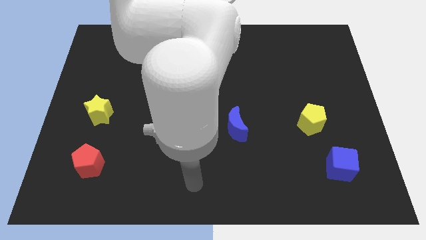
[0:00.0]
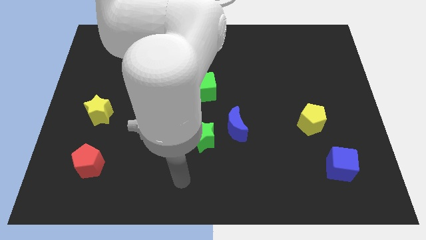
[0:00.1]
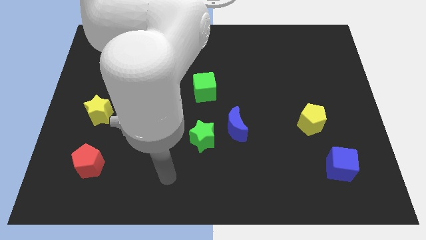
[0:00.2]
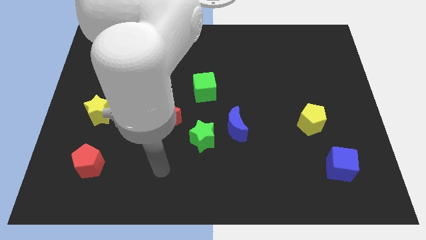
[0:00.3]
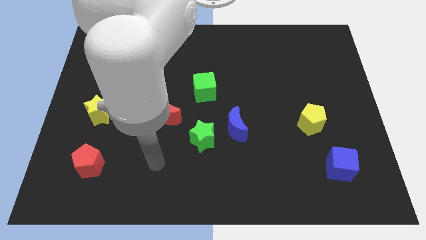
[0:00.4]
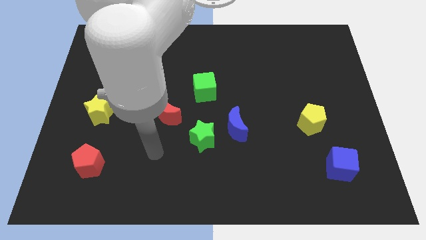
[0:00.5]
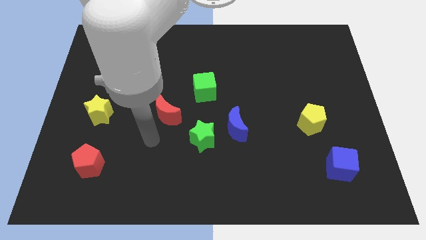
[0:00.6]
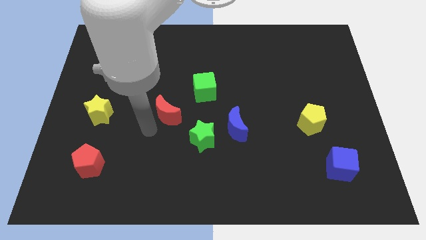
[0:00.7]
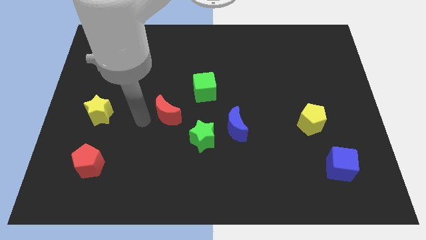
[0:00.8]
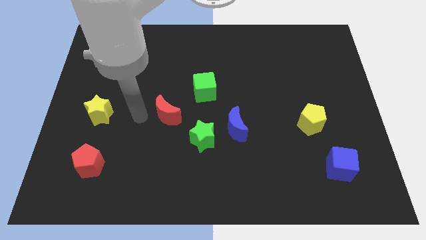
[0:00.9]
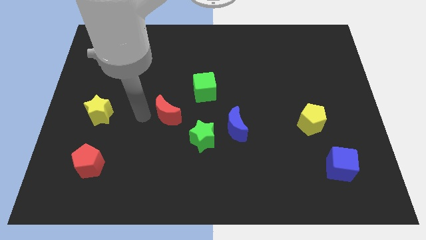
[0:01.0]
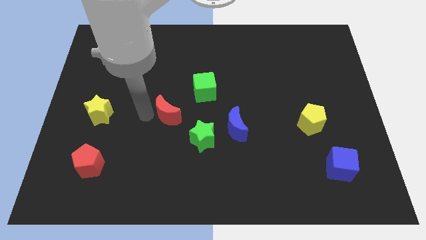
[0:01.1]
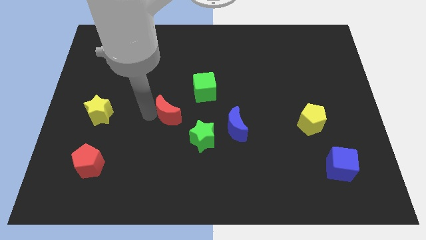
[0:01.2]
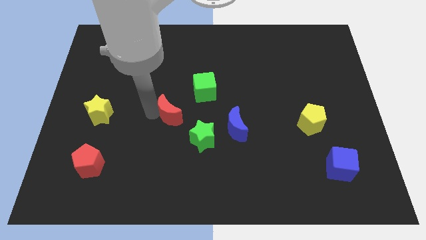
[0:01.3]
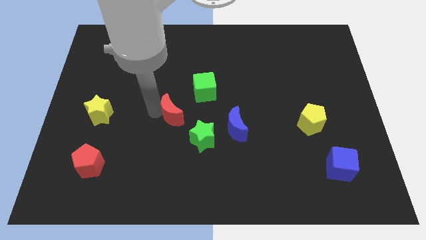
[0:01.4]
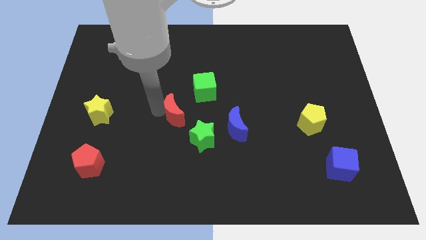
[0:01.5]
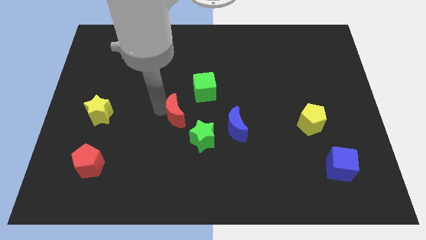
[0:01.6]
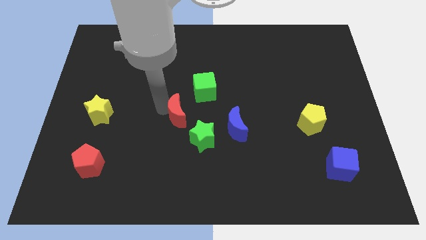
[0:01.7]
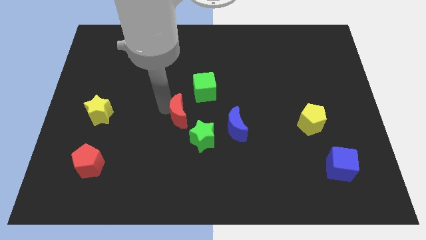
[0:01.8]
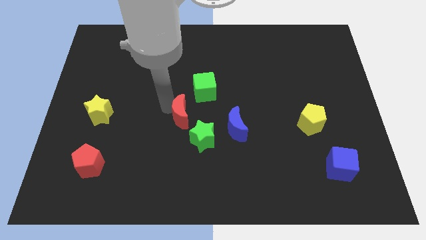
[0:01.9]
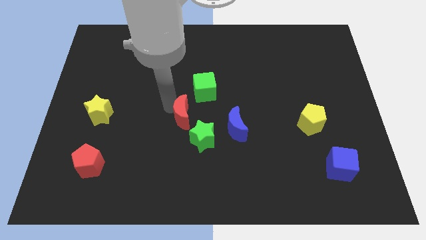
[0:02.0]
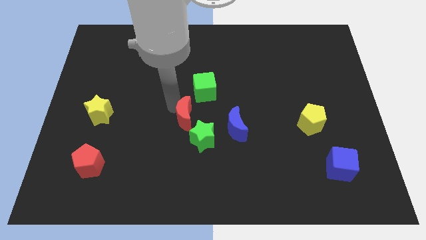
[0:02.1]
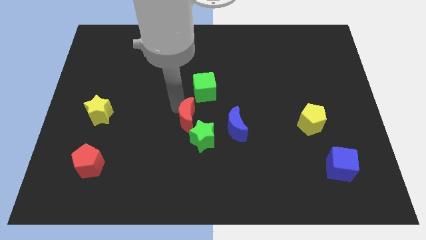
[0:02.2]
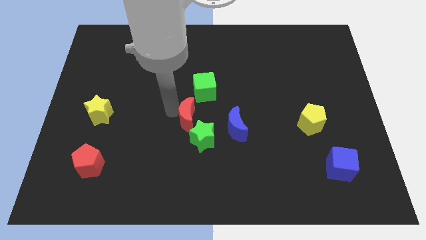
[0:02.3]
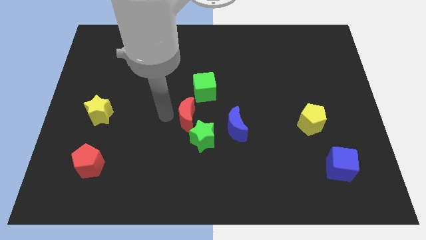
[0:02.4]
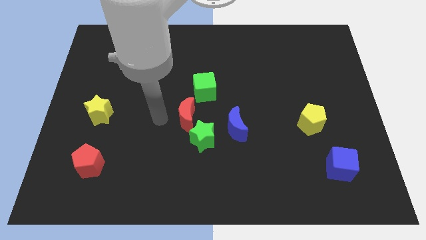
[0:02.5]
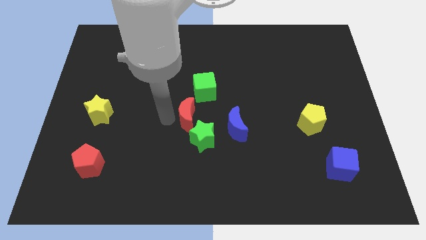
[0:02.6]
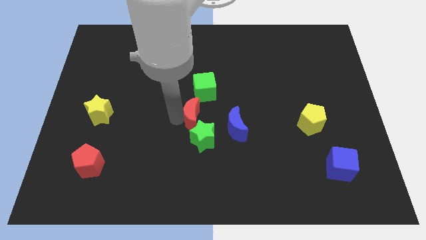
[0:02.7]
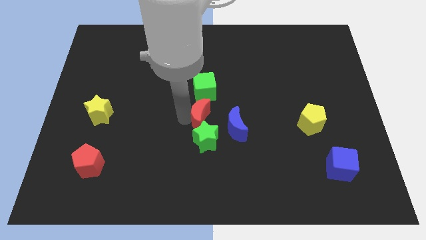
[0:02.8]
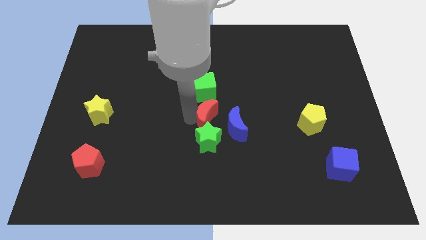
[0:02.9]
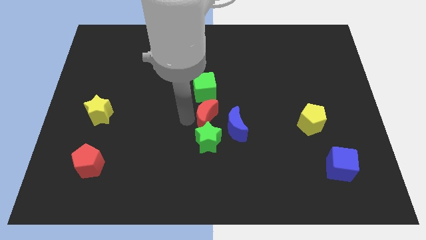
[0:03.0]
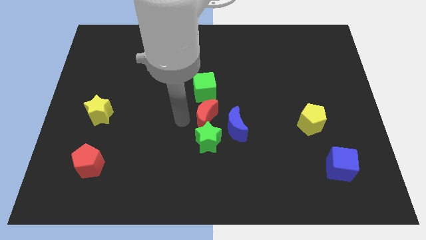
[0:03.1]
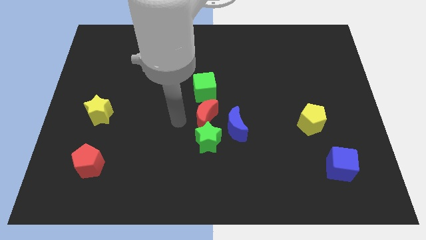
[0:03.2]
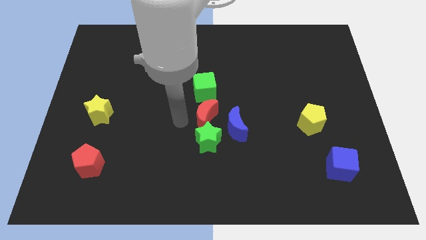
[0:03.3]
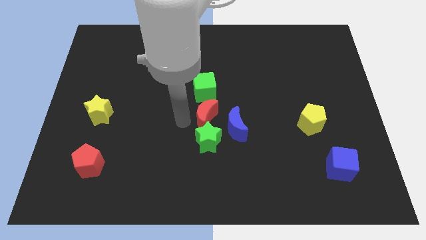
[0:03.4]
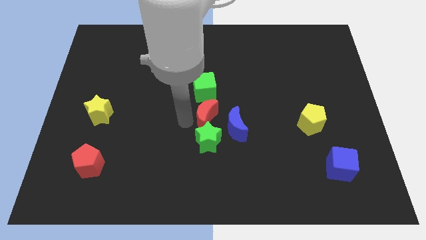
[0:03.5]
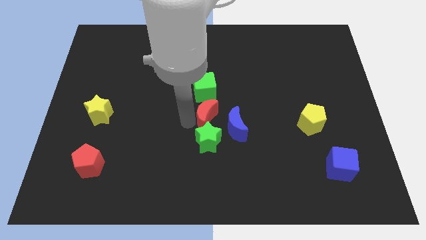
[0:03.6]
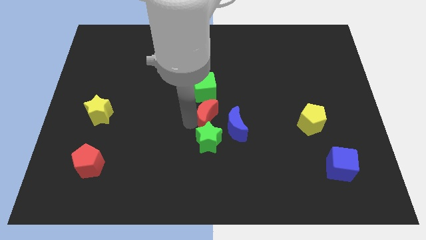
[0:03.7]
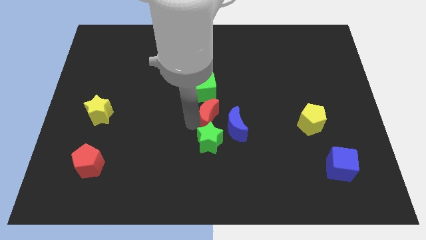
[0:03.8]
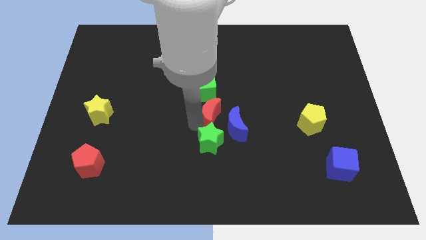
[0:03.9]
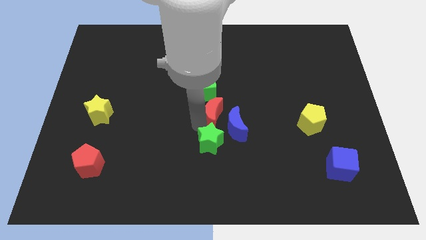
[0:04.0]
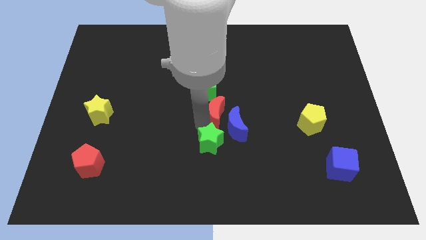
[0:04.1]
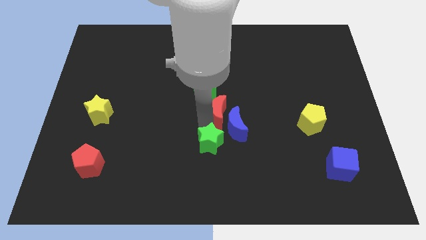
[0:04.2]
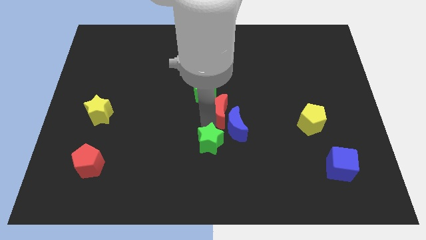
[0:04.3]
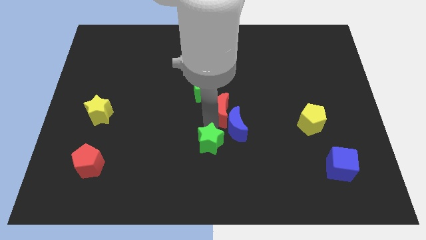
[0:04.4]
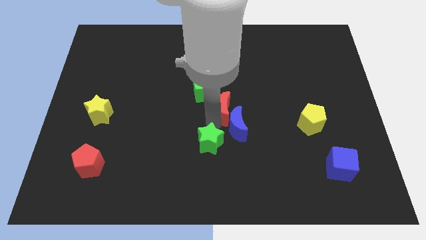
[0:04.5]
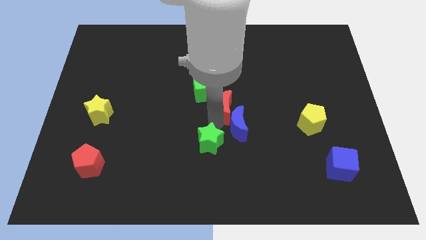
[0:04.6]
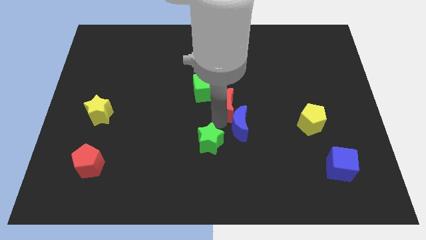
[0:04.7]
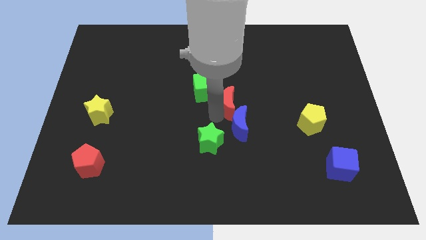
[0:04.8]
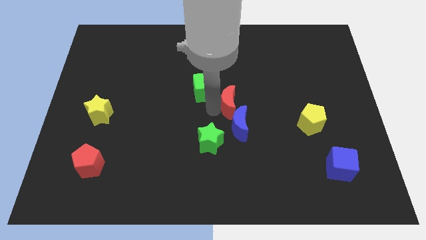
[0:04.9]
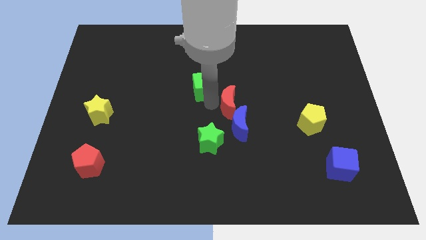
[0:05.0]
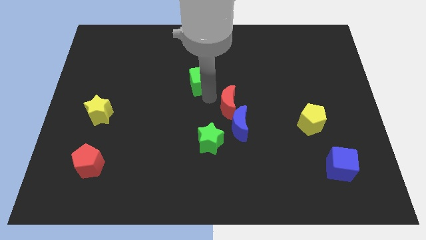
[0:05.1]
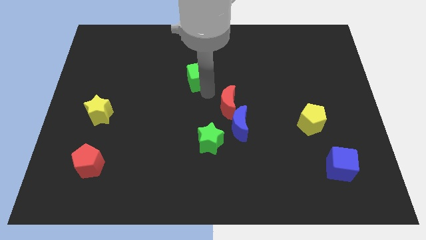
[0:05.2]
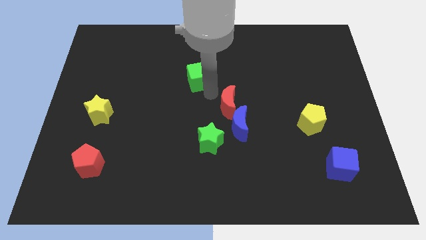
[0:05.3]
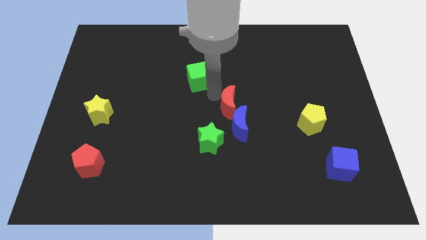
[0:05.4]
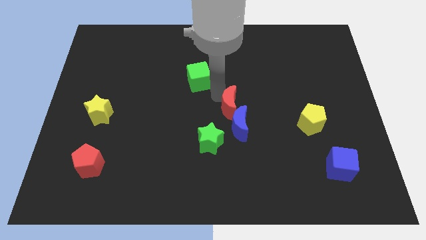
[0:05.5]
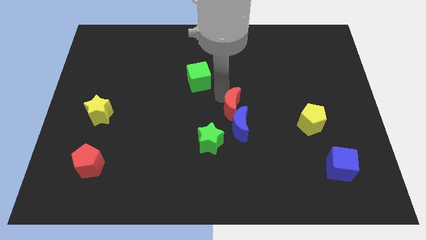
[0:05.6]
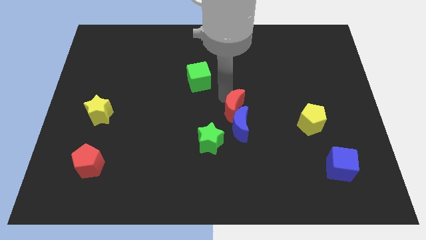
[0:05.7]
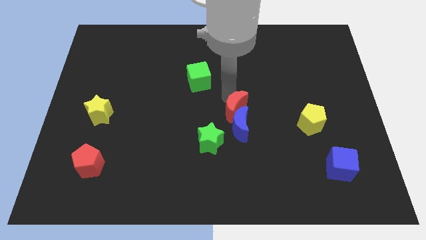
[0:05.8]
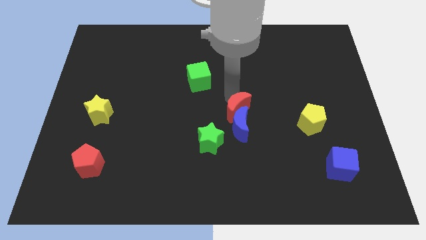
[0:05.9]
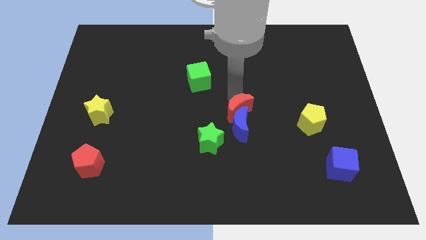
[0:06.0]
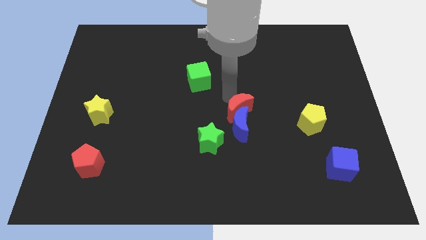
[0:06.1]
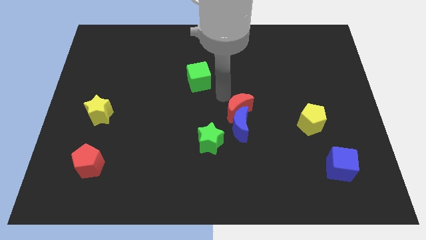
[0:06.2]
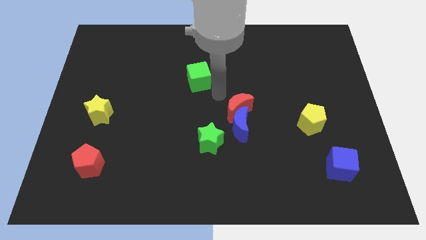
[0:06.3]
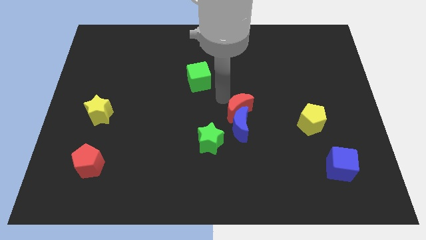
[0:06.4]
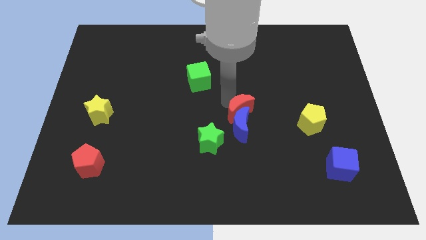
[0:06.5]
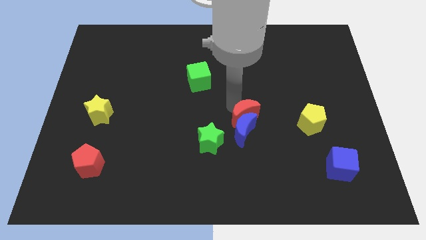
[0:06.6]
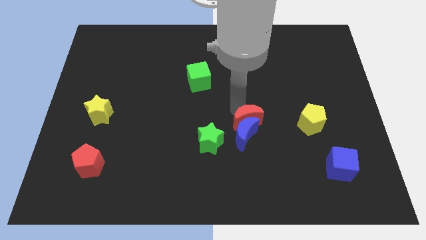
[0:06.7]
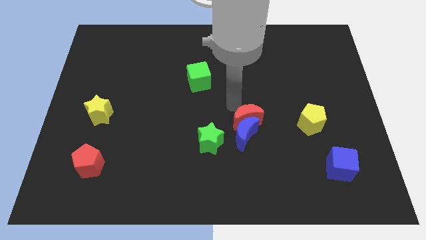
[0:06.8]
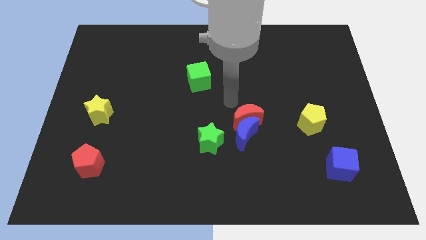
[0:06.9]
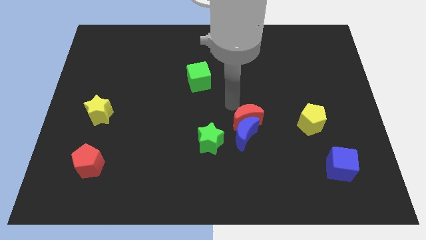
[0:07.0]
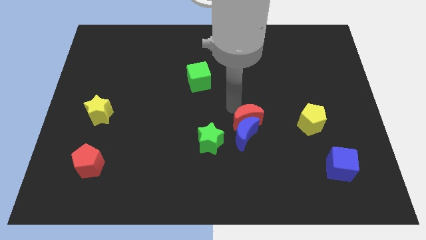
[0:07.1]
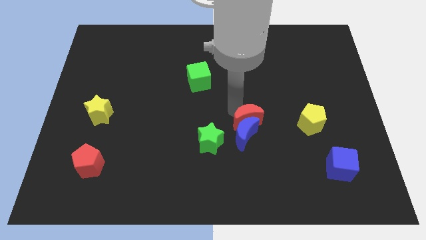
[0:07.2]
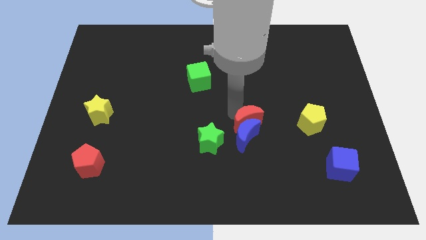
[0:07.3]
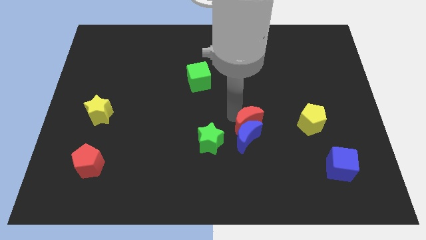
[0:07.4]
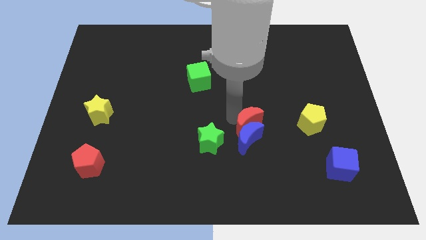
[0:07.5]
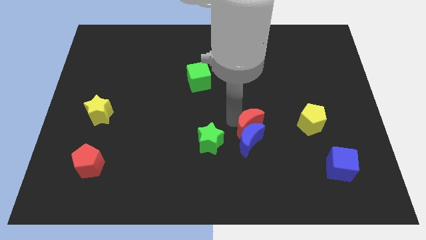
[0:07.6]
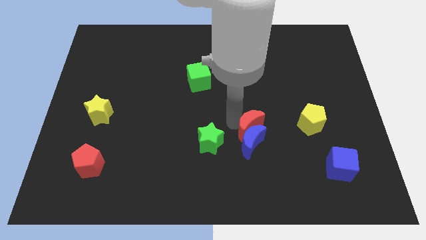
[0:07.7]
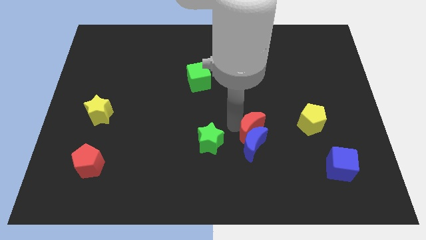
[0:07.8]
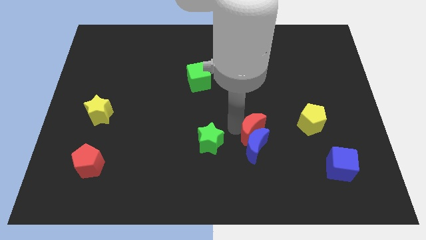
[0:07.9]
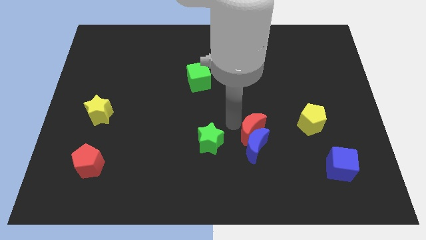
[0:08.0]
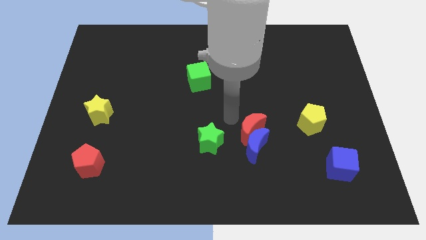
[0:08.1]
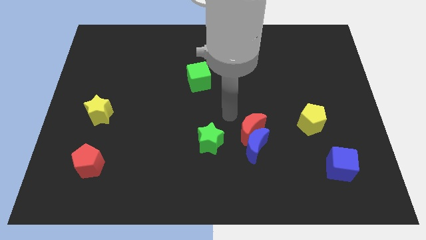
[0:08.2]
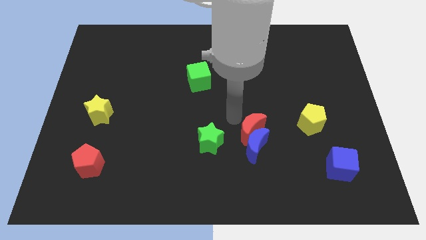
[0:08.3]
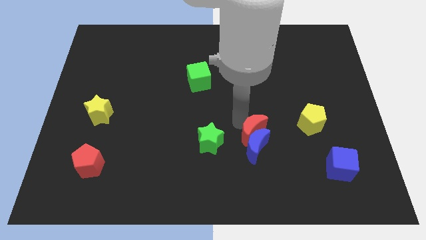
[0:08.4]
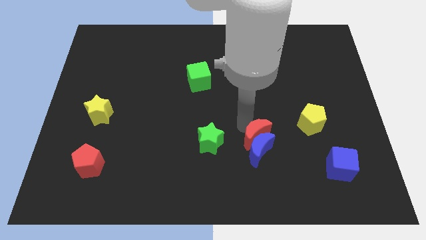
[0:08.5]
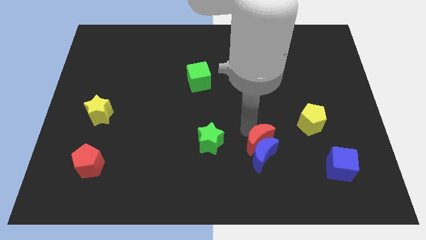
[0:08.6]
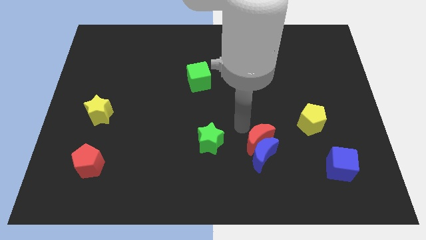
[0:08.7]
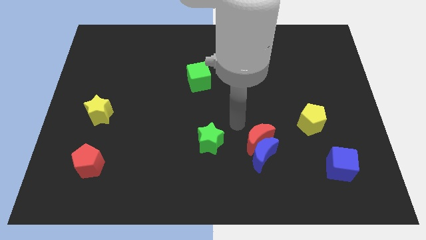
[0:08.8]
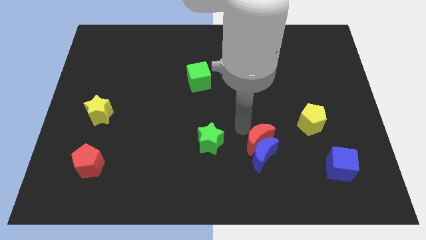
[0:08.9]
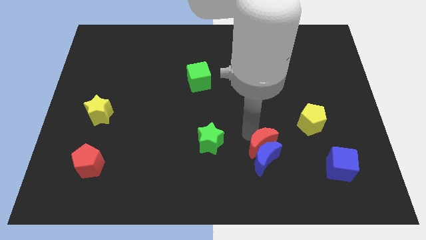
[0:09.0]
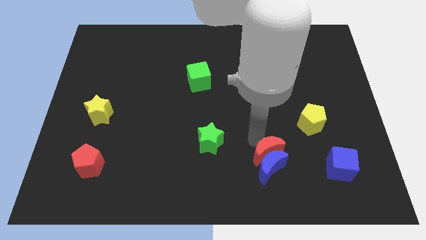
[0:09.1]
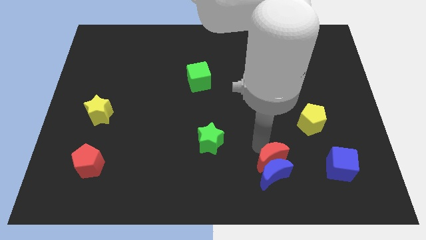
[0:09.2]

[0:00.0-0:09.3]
put the red moon left of the blue cube
